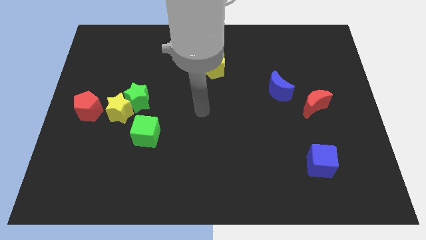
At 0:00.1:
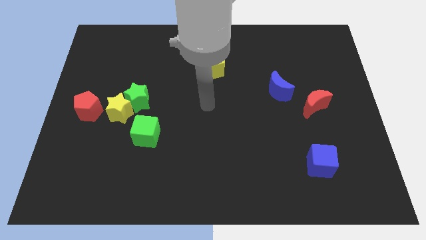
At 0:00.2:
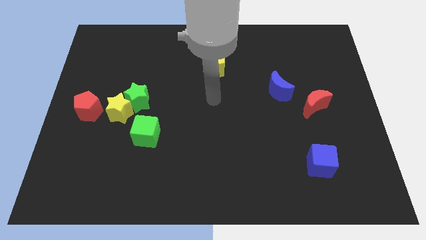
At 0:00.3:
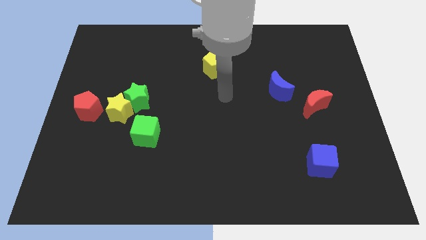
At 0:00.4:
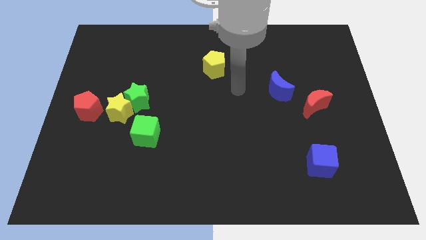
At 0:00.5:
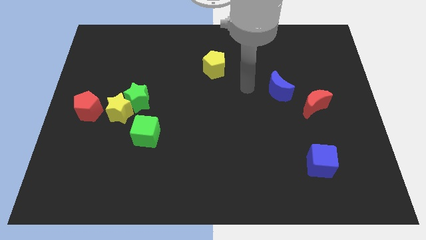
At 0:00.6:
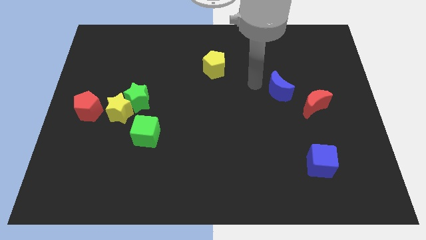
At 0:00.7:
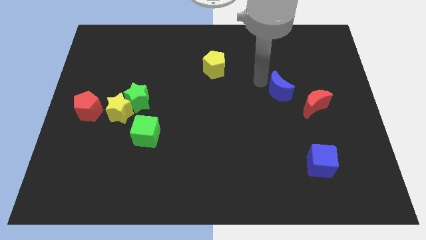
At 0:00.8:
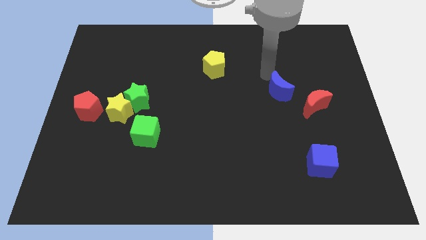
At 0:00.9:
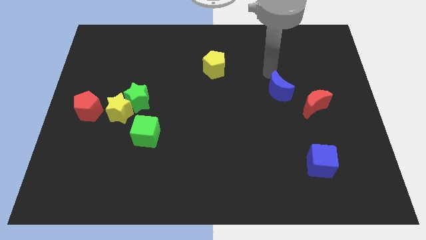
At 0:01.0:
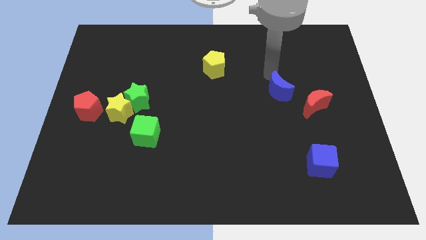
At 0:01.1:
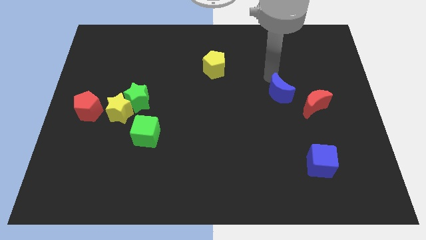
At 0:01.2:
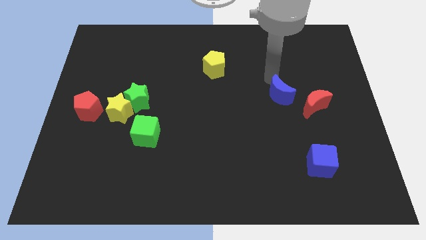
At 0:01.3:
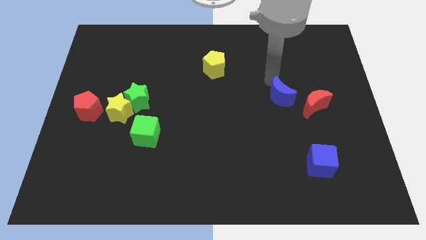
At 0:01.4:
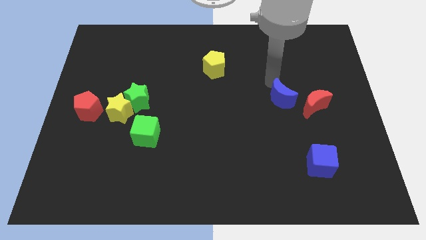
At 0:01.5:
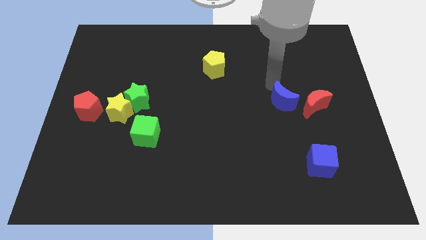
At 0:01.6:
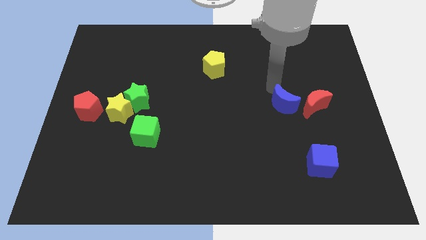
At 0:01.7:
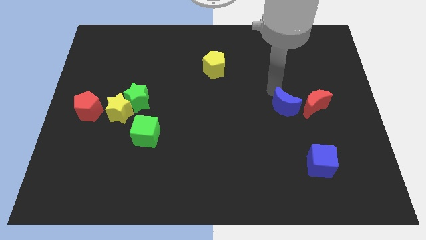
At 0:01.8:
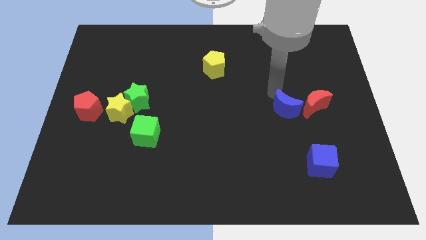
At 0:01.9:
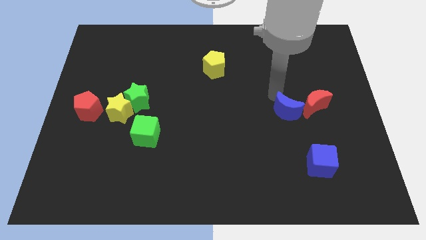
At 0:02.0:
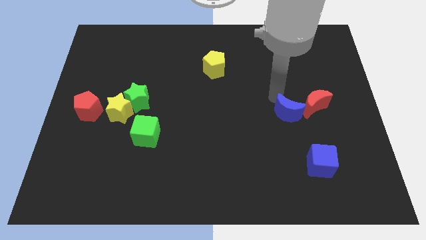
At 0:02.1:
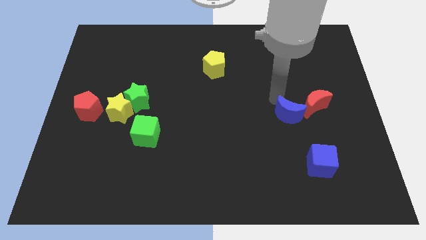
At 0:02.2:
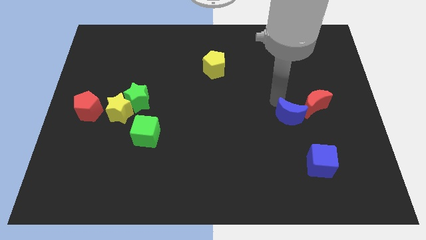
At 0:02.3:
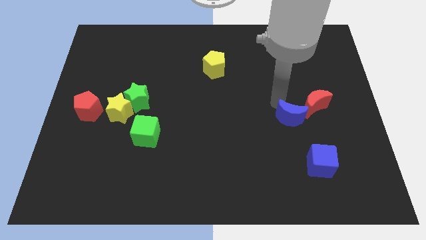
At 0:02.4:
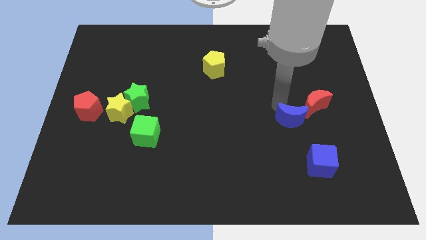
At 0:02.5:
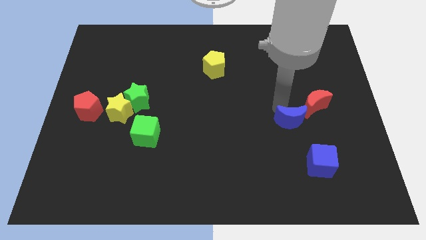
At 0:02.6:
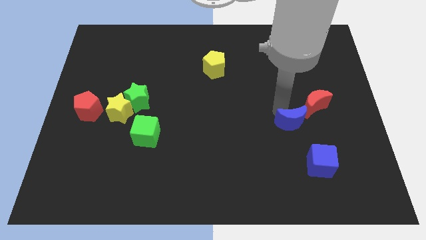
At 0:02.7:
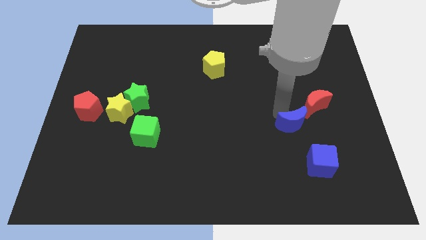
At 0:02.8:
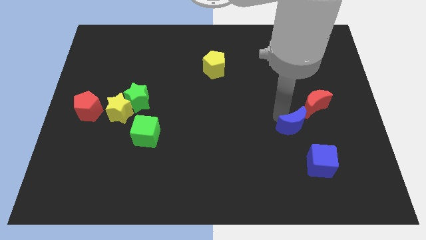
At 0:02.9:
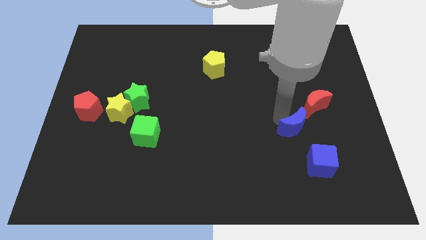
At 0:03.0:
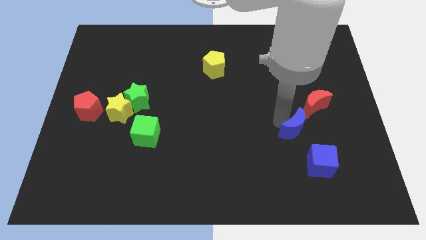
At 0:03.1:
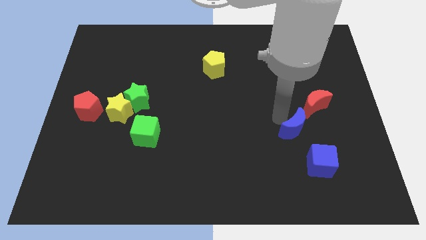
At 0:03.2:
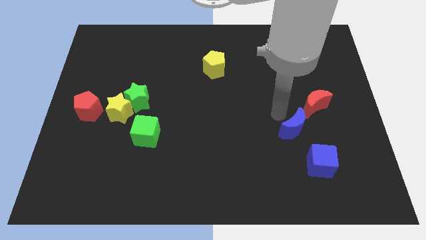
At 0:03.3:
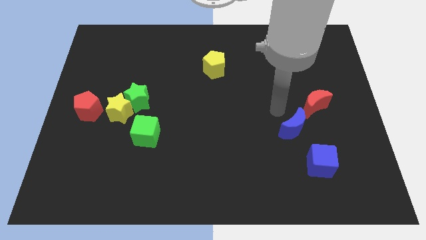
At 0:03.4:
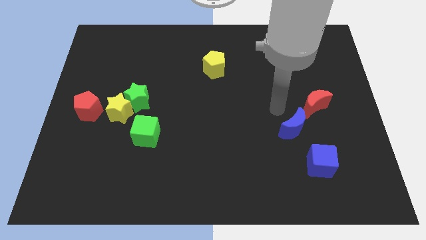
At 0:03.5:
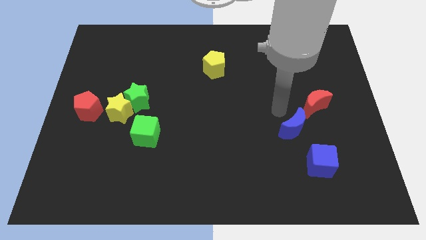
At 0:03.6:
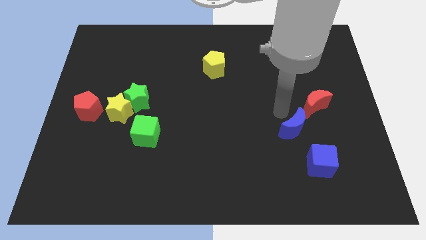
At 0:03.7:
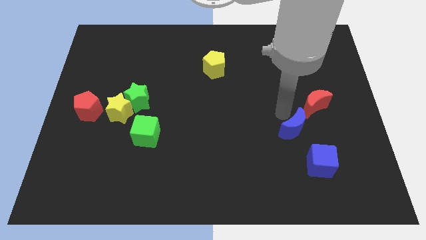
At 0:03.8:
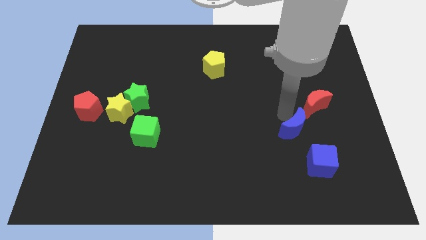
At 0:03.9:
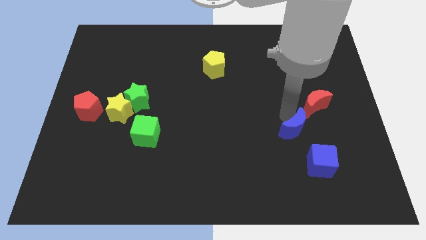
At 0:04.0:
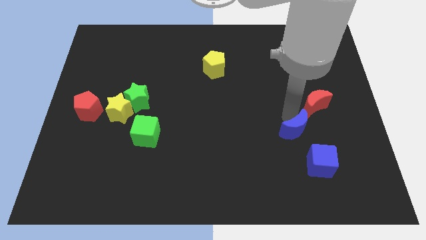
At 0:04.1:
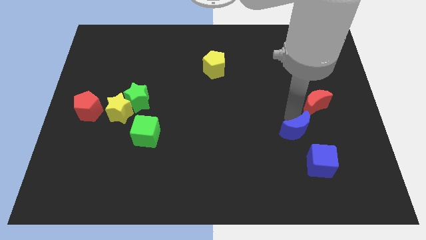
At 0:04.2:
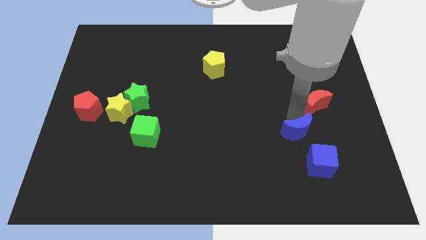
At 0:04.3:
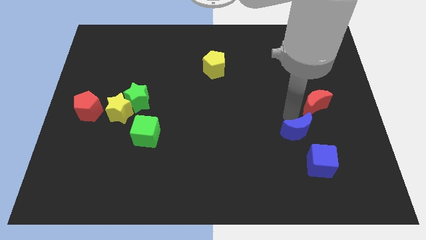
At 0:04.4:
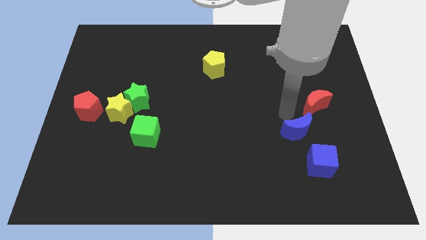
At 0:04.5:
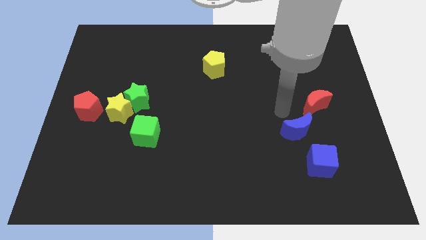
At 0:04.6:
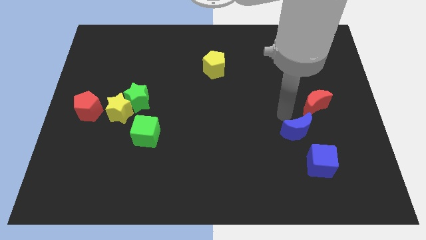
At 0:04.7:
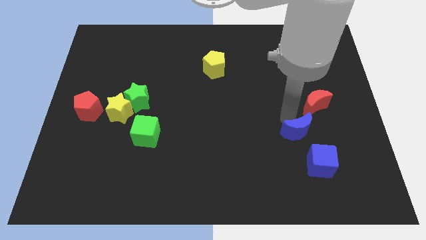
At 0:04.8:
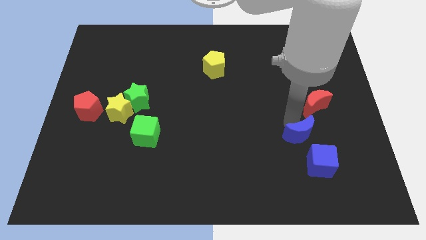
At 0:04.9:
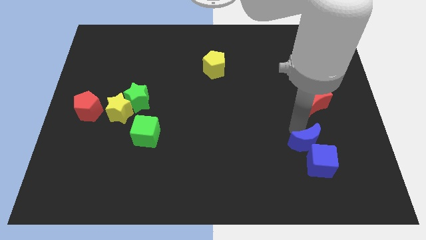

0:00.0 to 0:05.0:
slide the blue moon towards the blue cube

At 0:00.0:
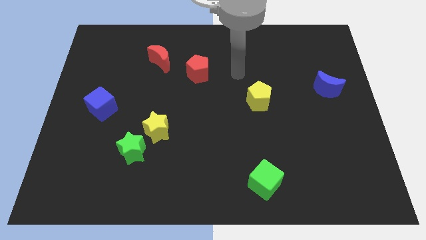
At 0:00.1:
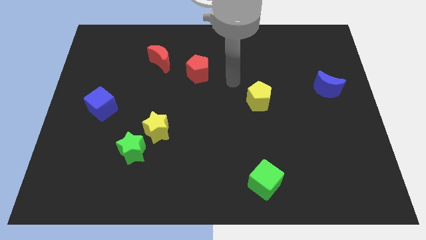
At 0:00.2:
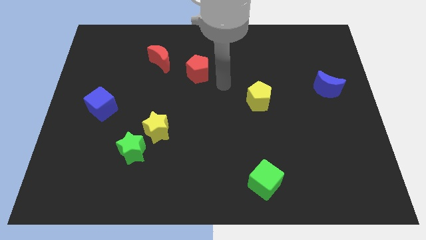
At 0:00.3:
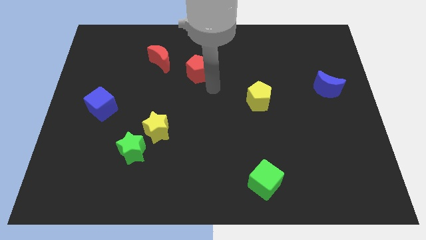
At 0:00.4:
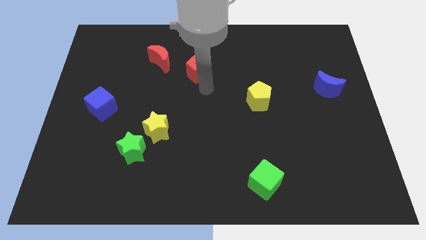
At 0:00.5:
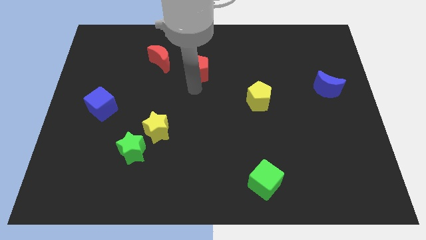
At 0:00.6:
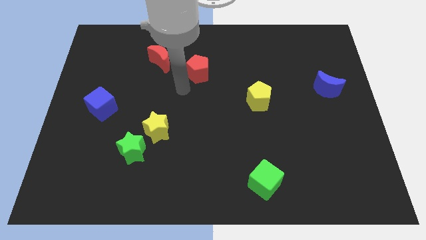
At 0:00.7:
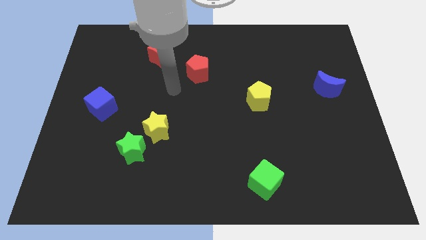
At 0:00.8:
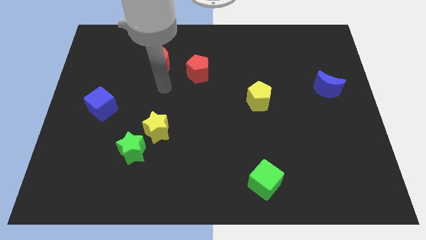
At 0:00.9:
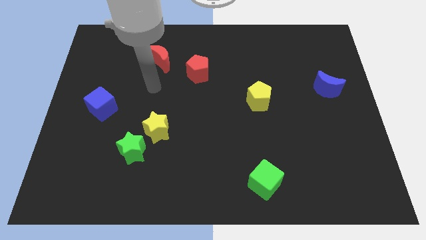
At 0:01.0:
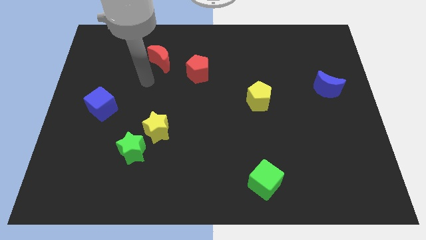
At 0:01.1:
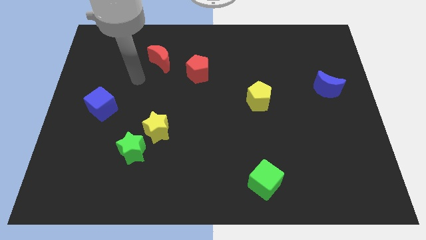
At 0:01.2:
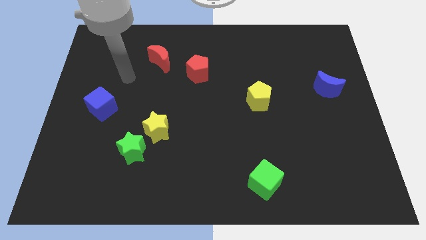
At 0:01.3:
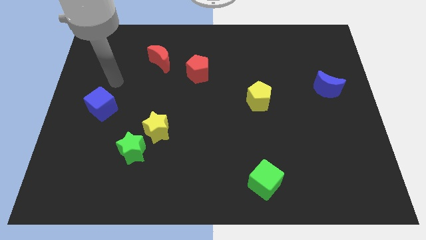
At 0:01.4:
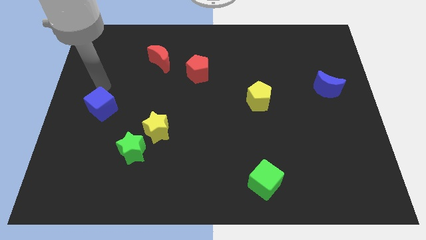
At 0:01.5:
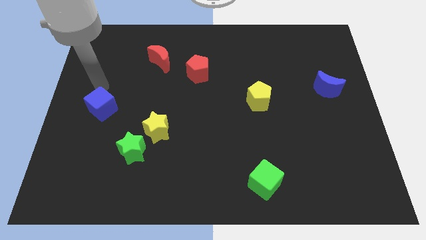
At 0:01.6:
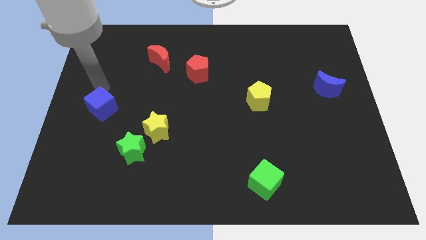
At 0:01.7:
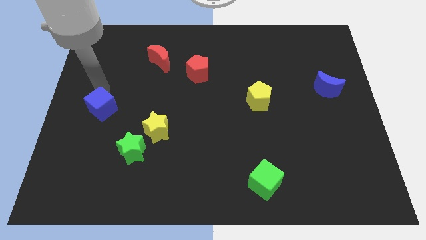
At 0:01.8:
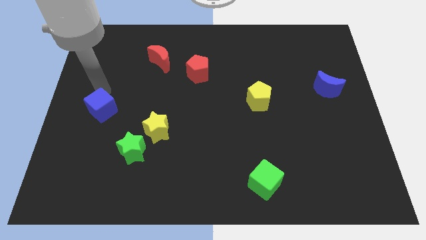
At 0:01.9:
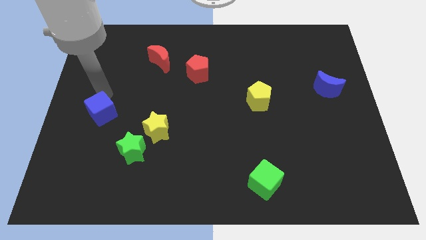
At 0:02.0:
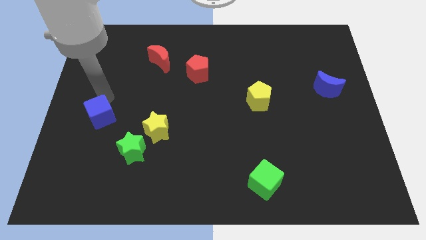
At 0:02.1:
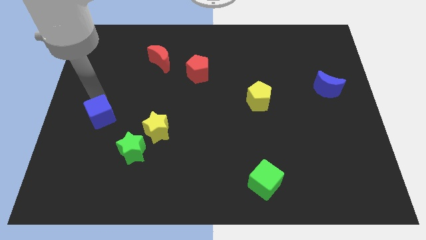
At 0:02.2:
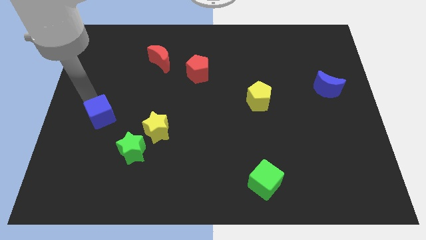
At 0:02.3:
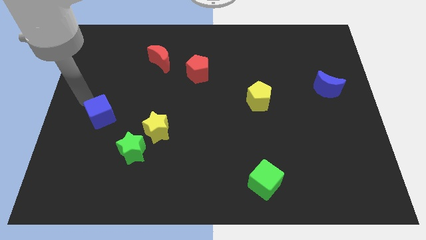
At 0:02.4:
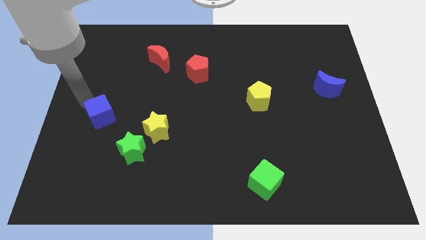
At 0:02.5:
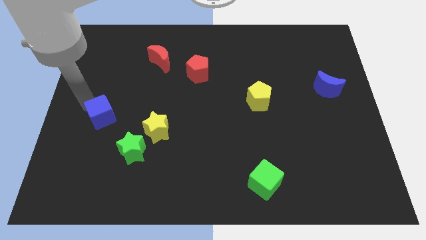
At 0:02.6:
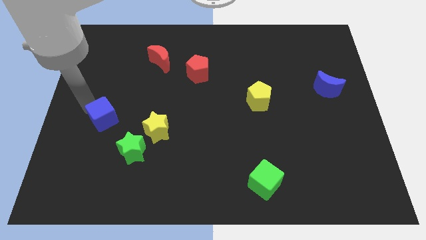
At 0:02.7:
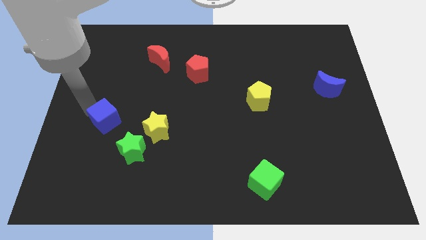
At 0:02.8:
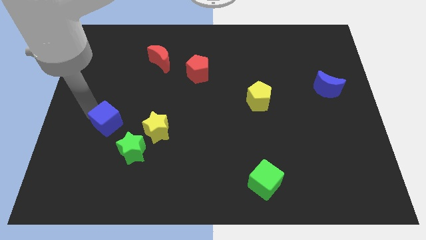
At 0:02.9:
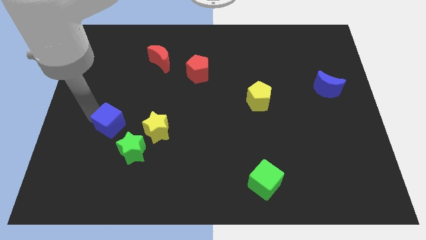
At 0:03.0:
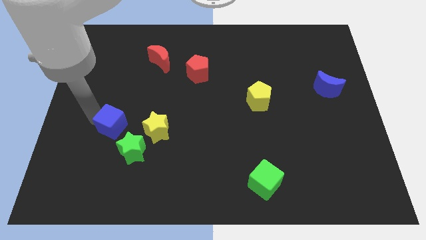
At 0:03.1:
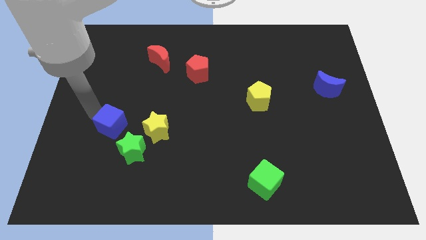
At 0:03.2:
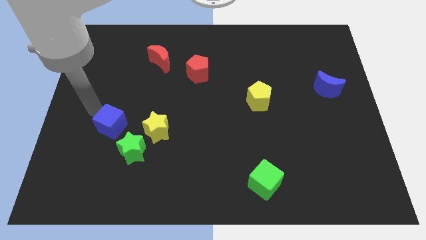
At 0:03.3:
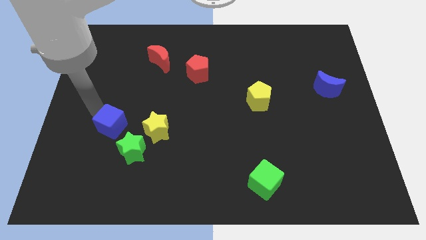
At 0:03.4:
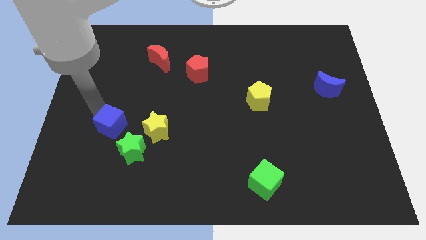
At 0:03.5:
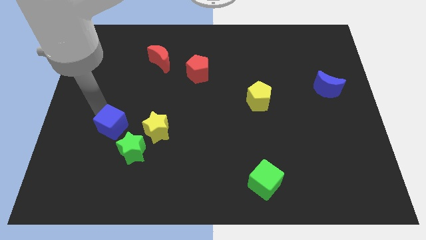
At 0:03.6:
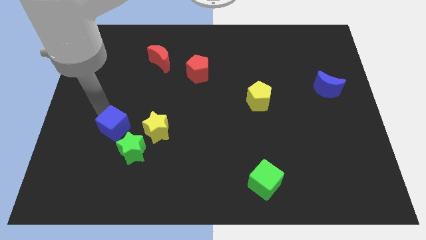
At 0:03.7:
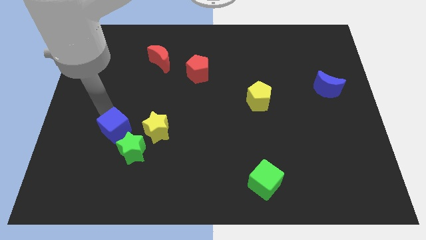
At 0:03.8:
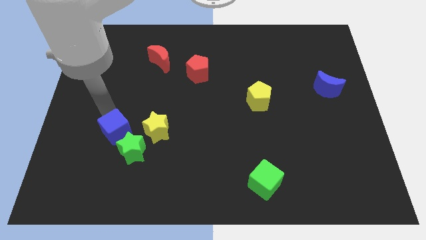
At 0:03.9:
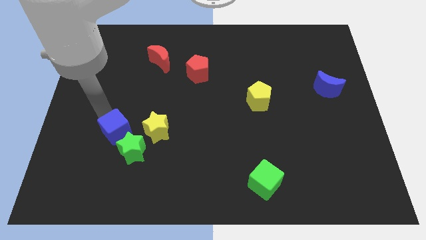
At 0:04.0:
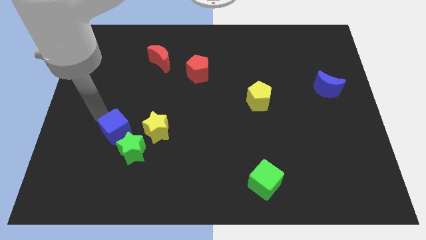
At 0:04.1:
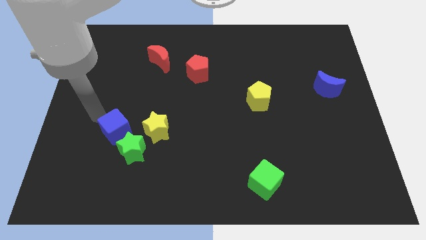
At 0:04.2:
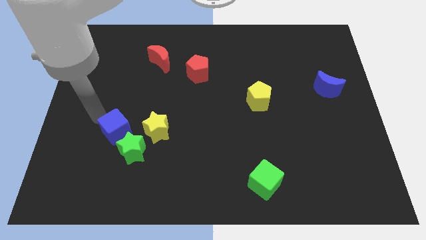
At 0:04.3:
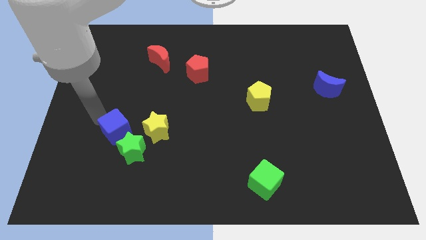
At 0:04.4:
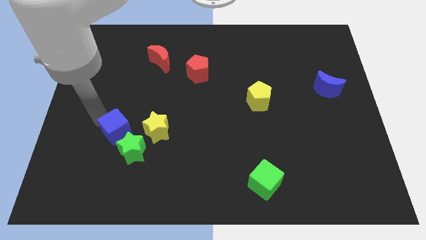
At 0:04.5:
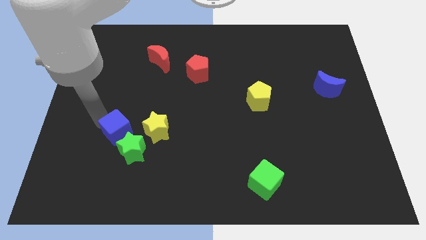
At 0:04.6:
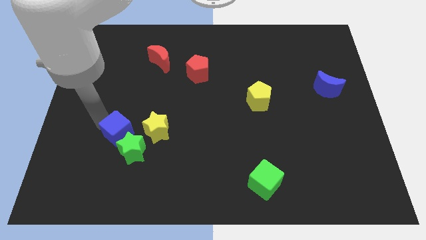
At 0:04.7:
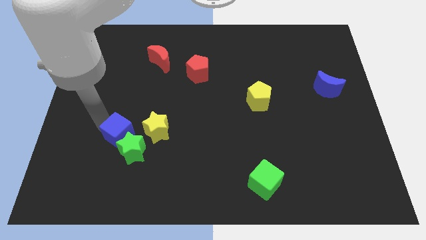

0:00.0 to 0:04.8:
put the blue cube next to the green star
